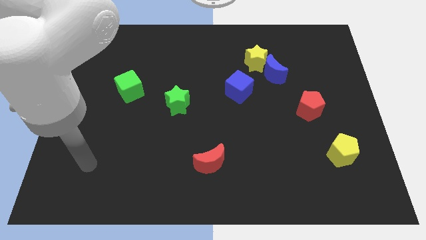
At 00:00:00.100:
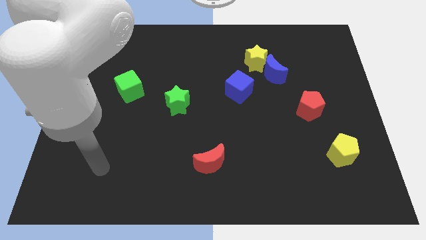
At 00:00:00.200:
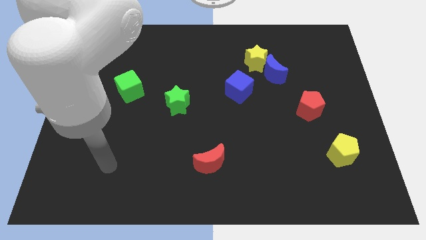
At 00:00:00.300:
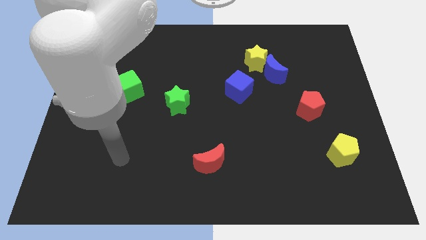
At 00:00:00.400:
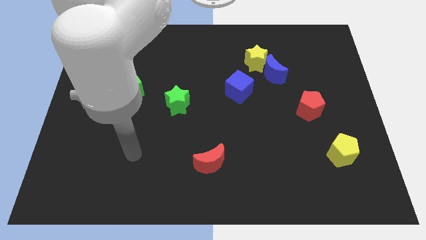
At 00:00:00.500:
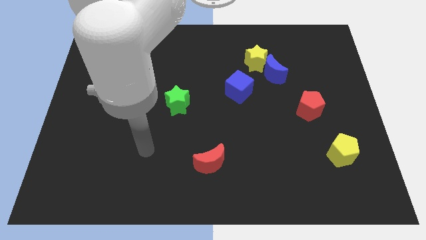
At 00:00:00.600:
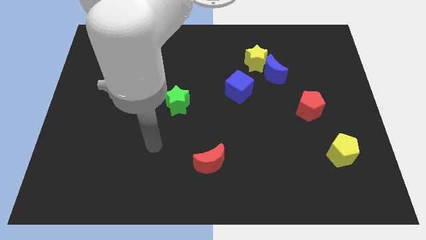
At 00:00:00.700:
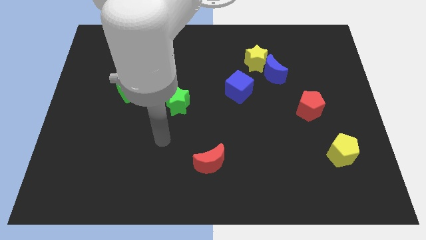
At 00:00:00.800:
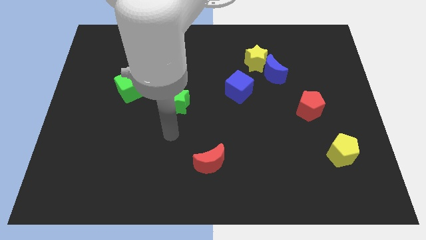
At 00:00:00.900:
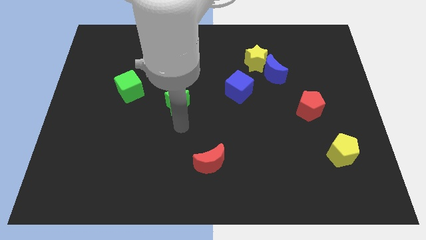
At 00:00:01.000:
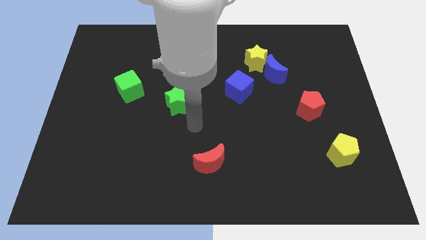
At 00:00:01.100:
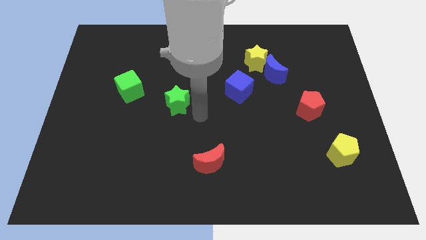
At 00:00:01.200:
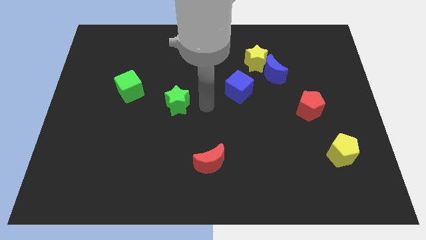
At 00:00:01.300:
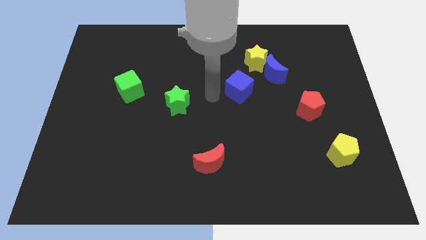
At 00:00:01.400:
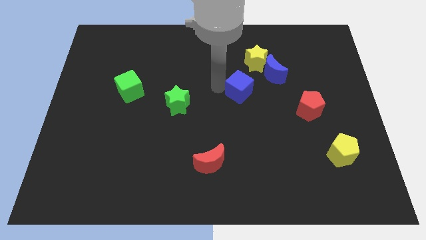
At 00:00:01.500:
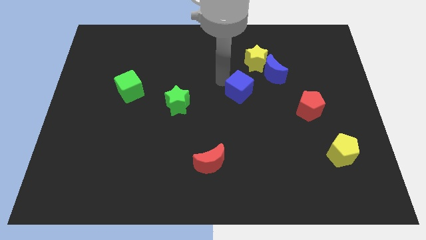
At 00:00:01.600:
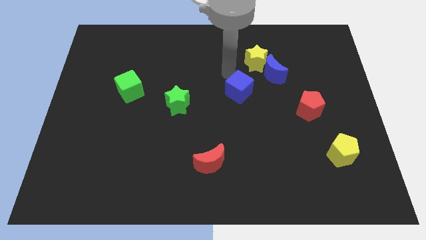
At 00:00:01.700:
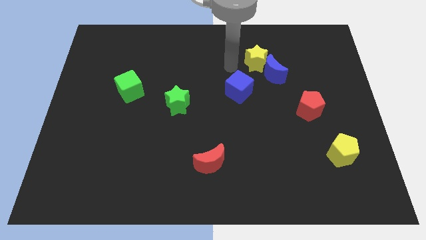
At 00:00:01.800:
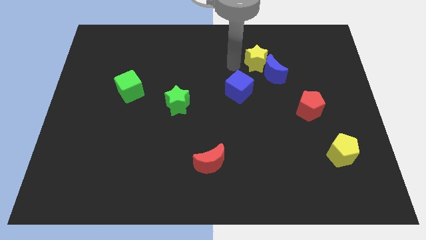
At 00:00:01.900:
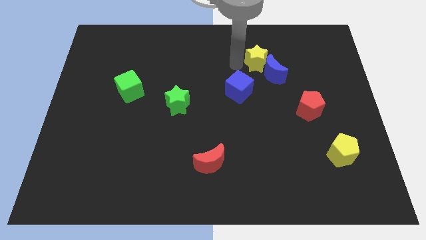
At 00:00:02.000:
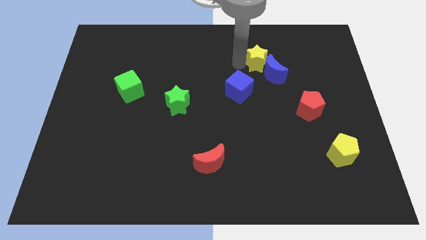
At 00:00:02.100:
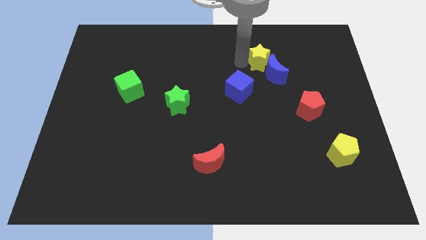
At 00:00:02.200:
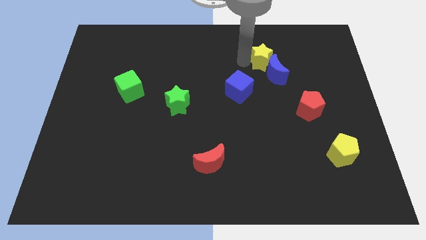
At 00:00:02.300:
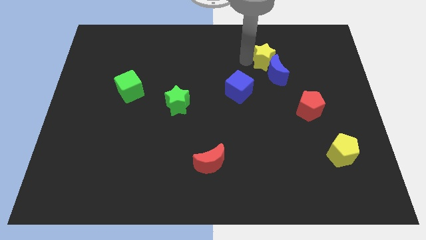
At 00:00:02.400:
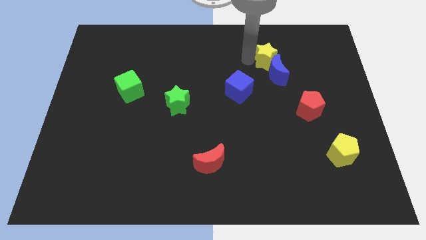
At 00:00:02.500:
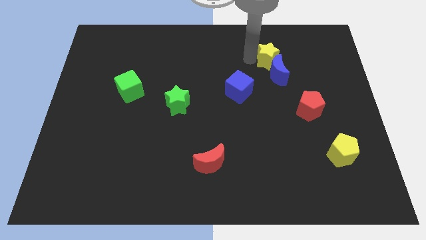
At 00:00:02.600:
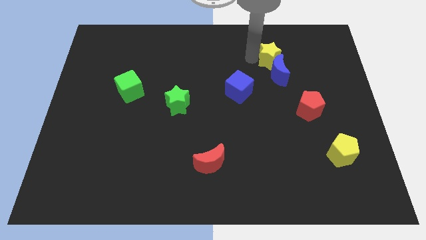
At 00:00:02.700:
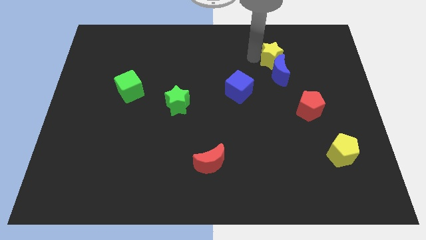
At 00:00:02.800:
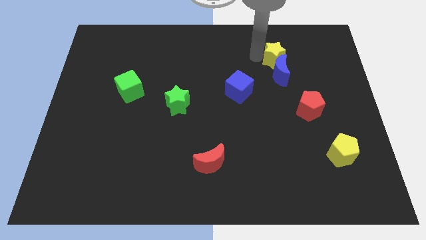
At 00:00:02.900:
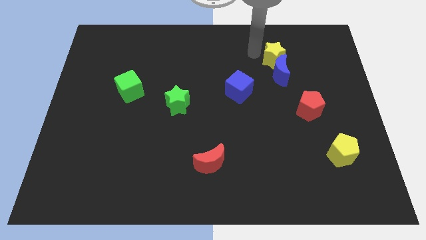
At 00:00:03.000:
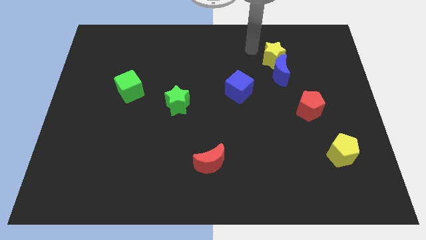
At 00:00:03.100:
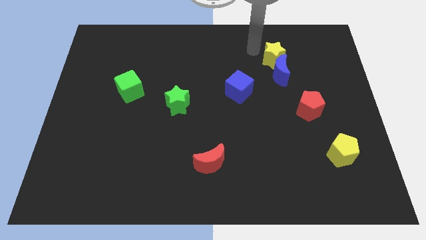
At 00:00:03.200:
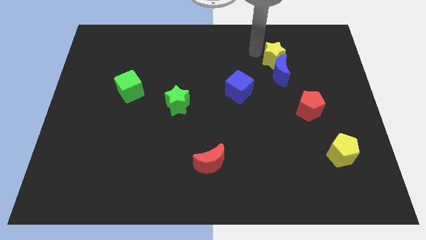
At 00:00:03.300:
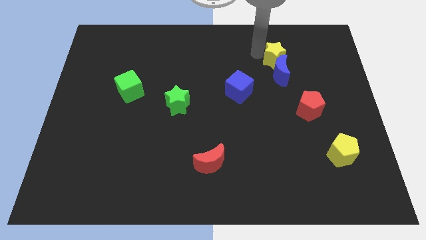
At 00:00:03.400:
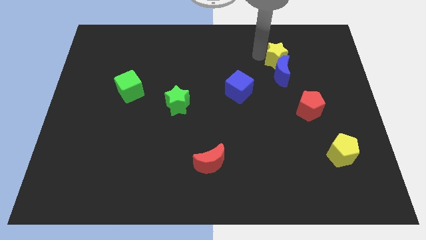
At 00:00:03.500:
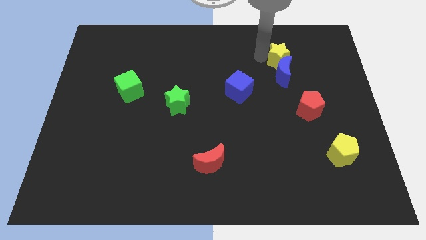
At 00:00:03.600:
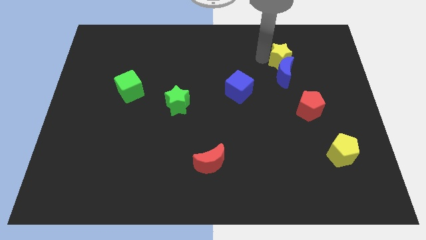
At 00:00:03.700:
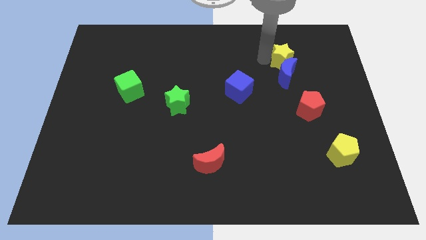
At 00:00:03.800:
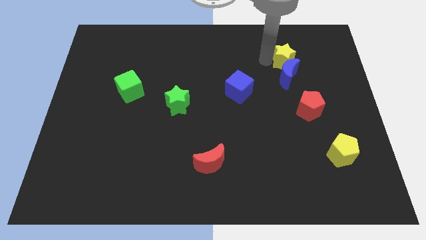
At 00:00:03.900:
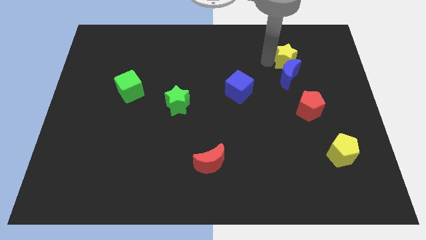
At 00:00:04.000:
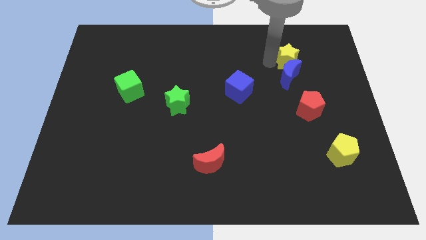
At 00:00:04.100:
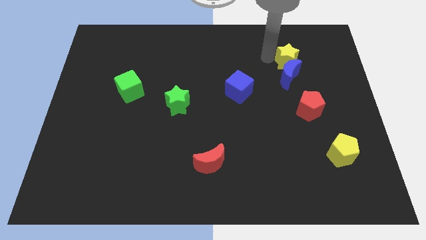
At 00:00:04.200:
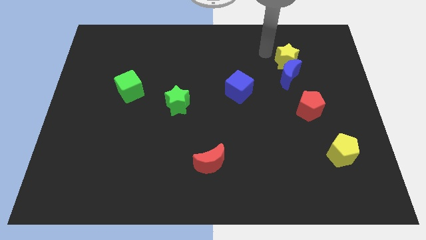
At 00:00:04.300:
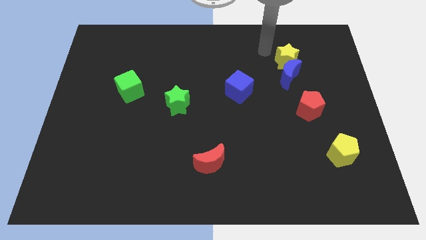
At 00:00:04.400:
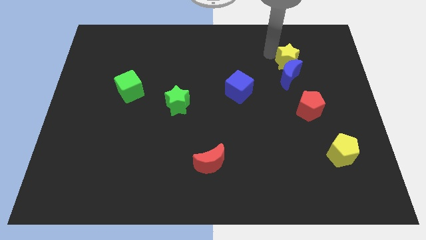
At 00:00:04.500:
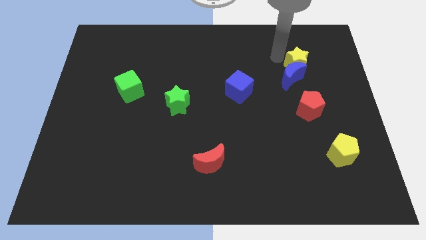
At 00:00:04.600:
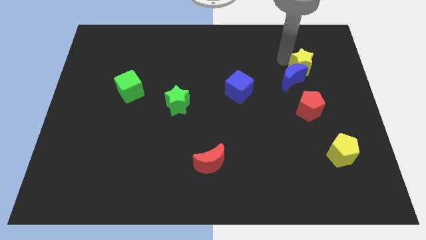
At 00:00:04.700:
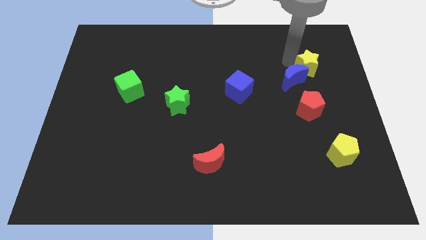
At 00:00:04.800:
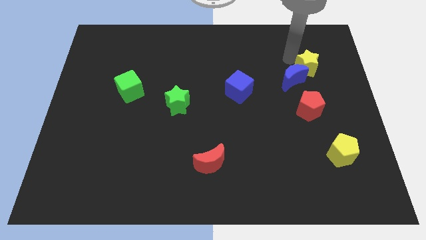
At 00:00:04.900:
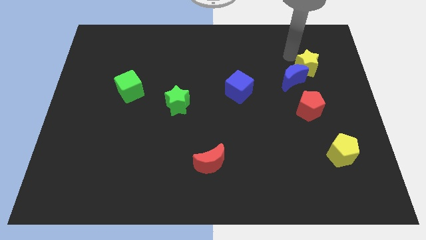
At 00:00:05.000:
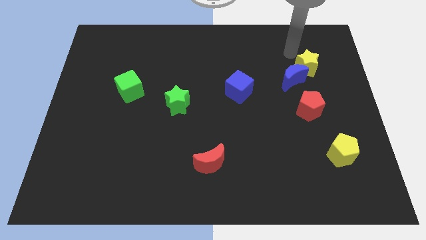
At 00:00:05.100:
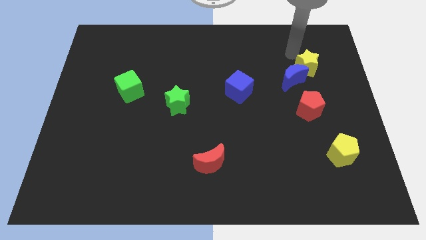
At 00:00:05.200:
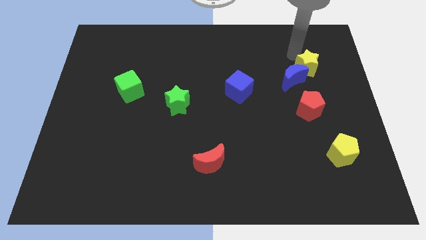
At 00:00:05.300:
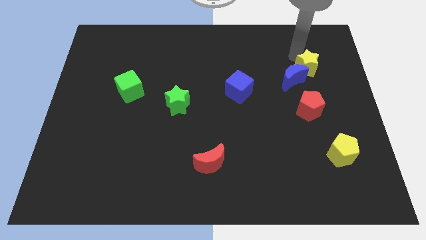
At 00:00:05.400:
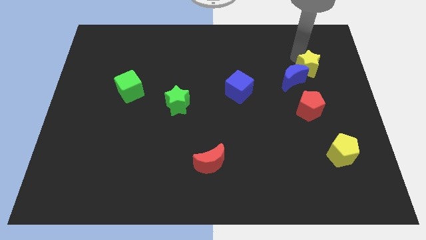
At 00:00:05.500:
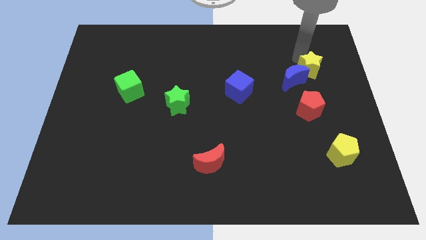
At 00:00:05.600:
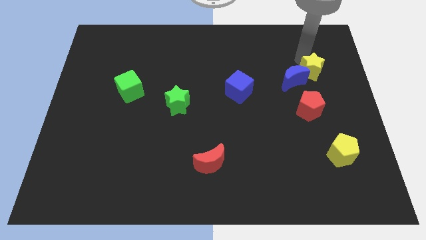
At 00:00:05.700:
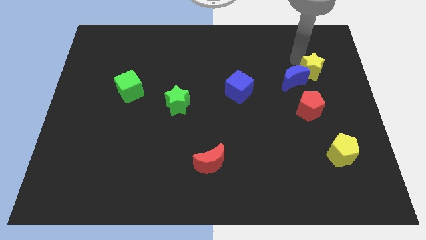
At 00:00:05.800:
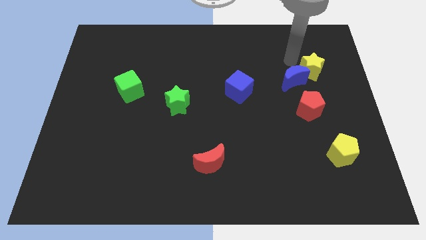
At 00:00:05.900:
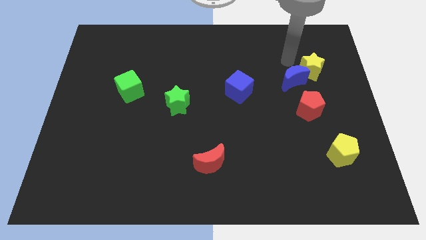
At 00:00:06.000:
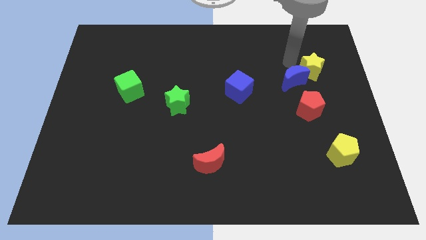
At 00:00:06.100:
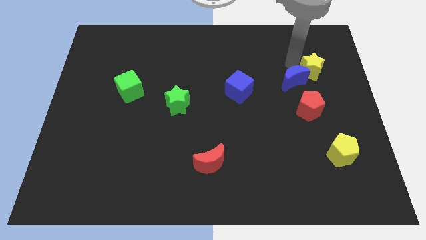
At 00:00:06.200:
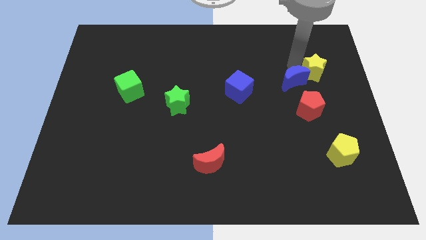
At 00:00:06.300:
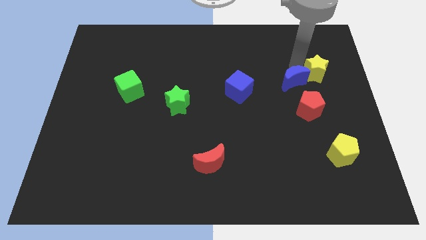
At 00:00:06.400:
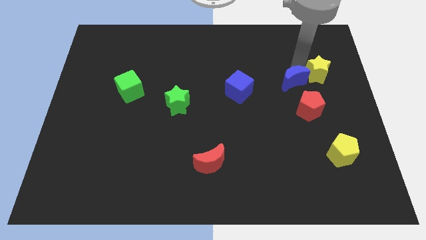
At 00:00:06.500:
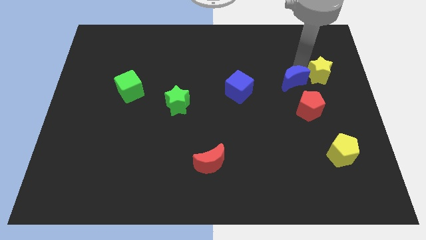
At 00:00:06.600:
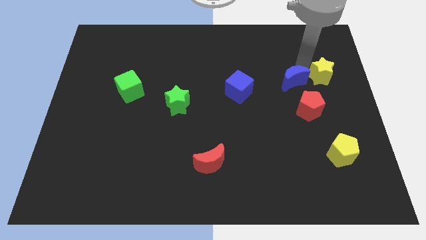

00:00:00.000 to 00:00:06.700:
slide the yellow star to the right side
